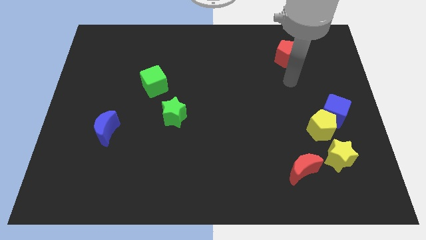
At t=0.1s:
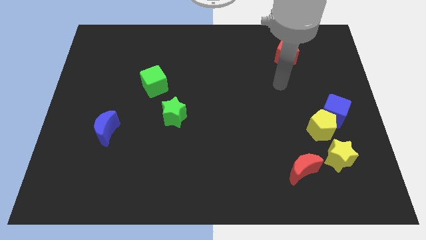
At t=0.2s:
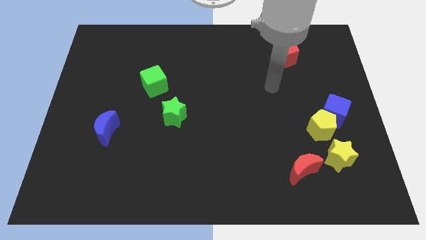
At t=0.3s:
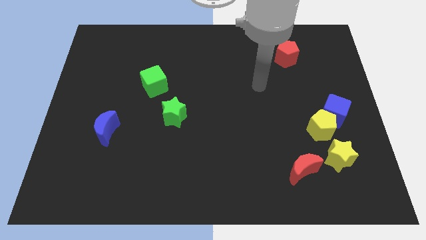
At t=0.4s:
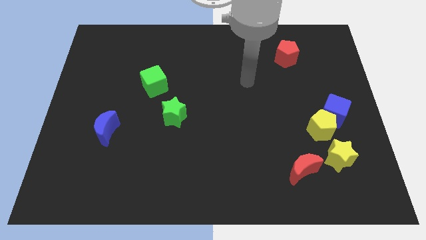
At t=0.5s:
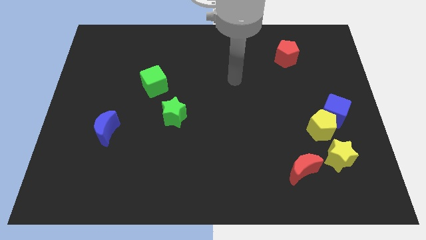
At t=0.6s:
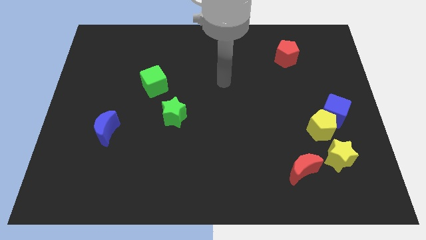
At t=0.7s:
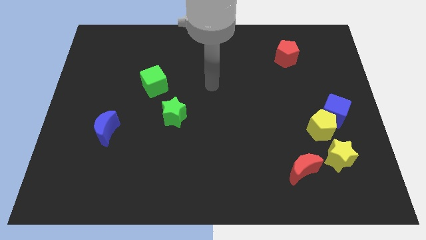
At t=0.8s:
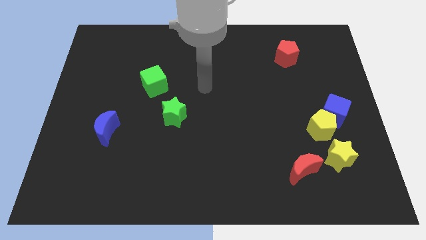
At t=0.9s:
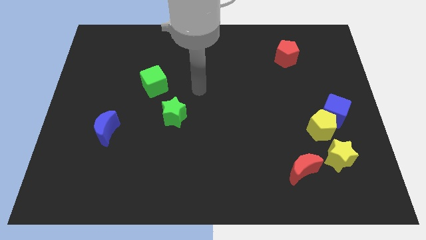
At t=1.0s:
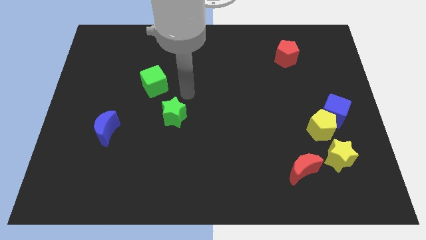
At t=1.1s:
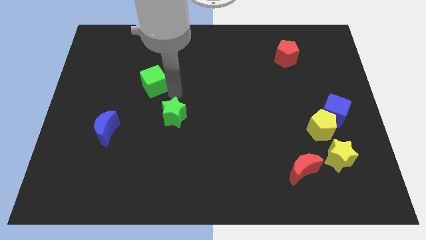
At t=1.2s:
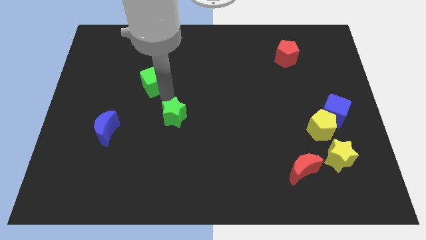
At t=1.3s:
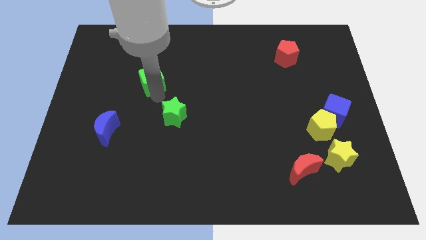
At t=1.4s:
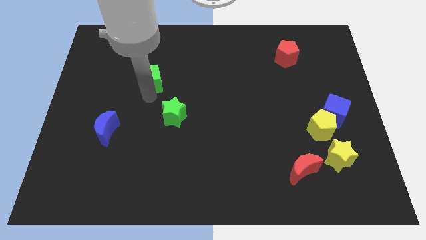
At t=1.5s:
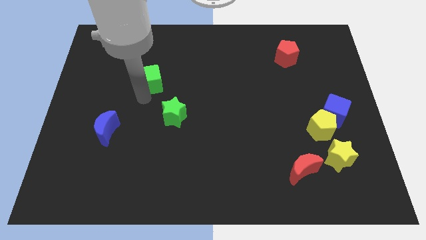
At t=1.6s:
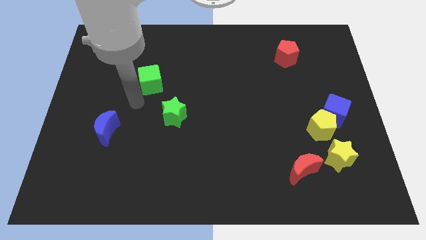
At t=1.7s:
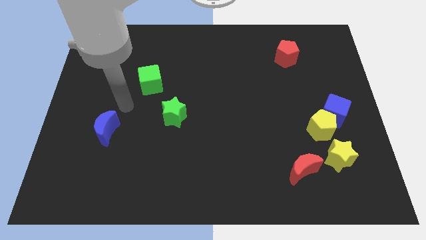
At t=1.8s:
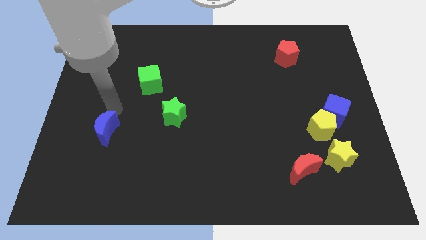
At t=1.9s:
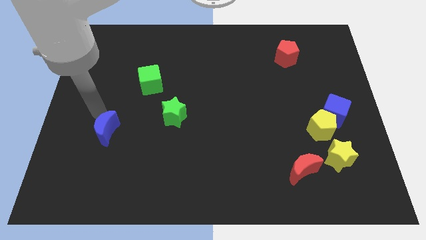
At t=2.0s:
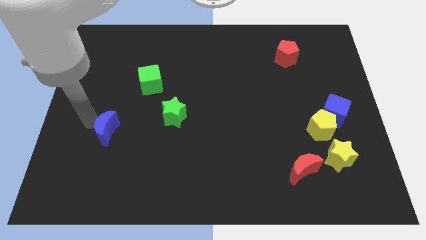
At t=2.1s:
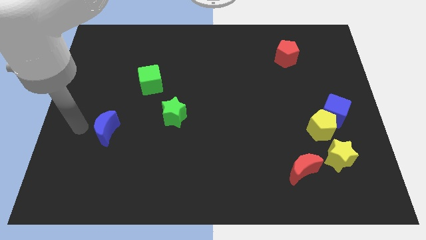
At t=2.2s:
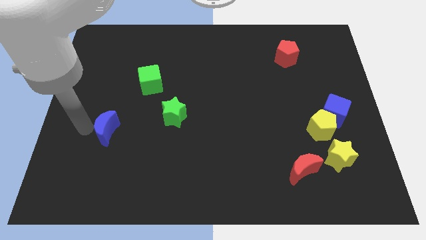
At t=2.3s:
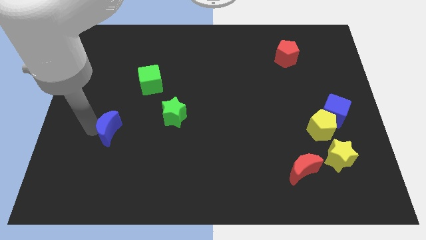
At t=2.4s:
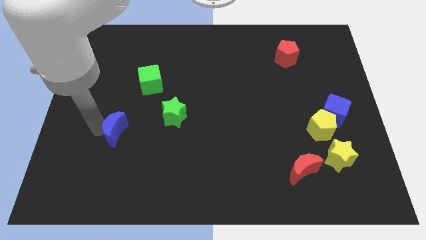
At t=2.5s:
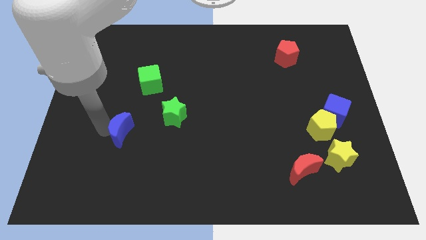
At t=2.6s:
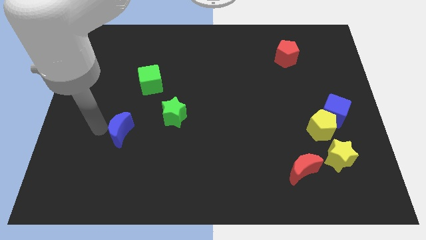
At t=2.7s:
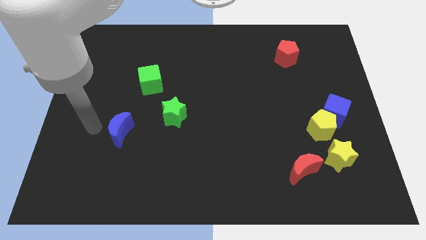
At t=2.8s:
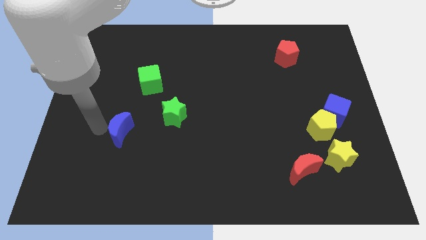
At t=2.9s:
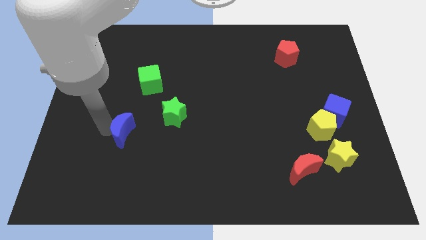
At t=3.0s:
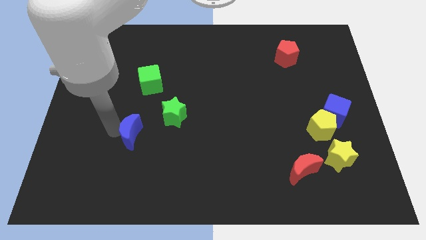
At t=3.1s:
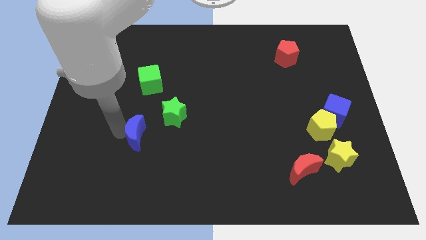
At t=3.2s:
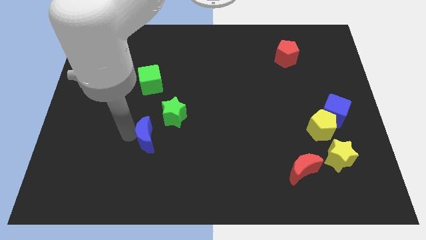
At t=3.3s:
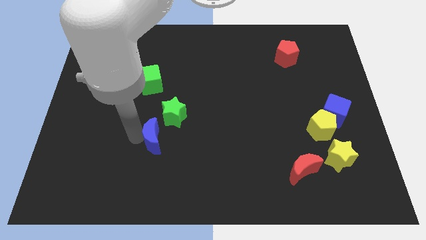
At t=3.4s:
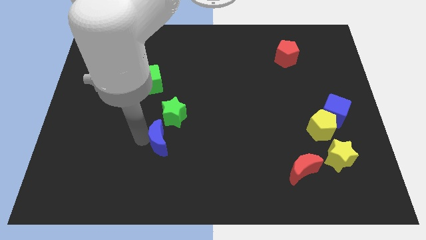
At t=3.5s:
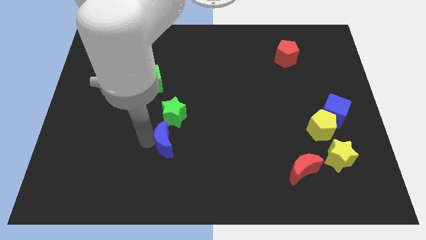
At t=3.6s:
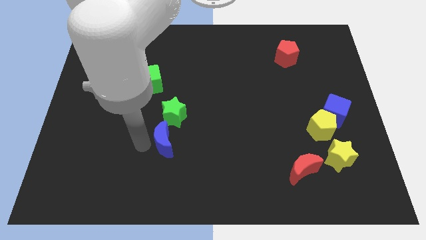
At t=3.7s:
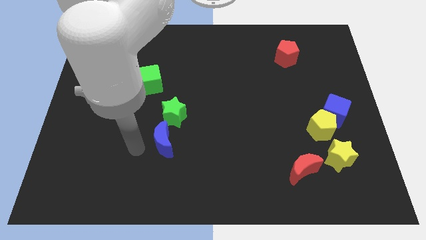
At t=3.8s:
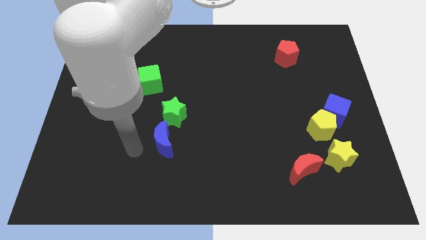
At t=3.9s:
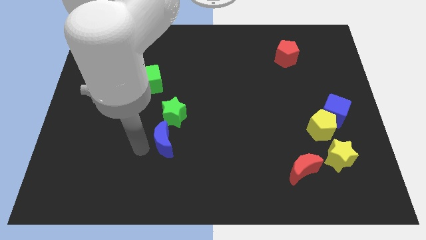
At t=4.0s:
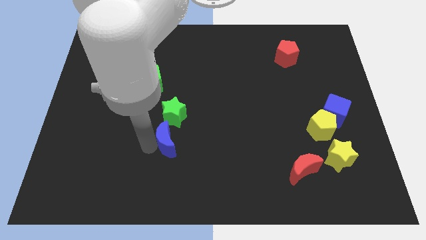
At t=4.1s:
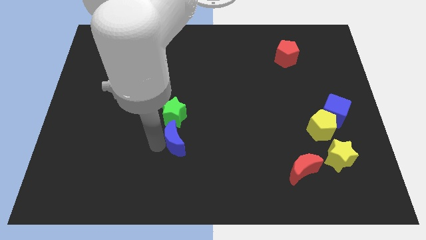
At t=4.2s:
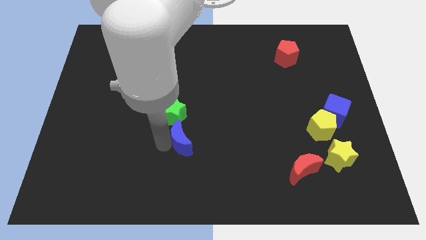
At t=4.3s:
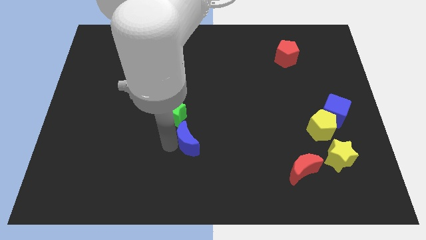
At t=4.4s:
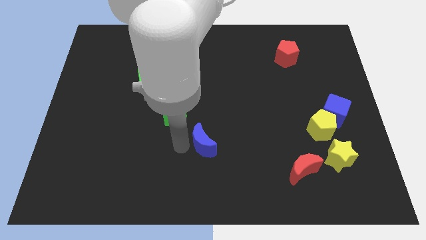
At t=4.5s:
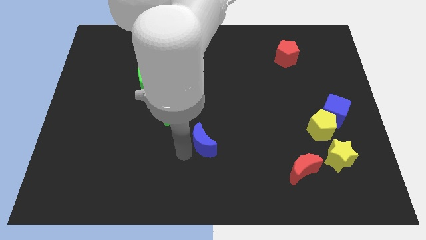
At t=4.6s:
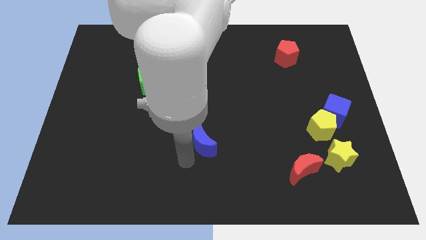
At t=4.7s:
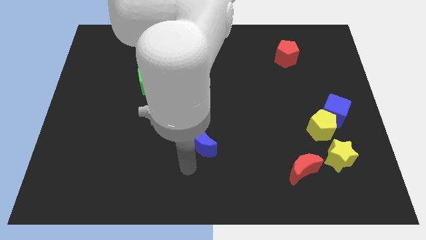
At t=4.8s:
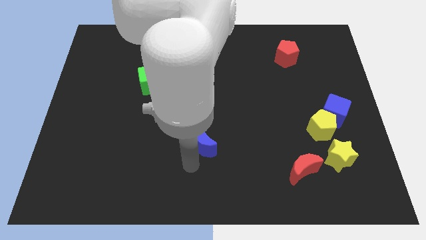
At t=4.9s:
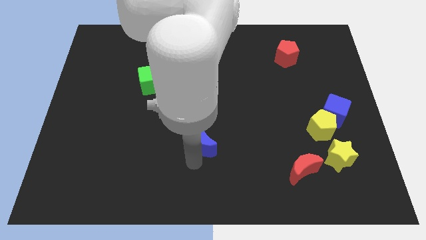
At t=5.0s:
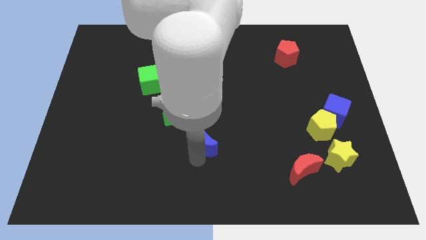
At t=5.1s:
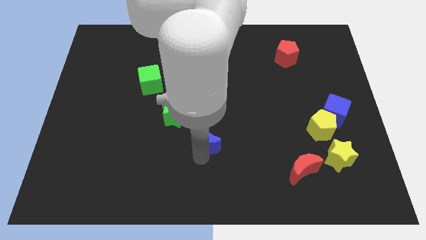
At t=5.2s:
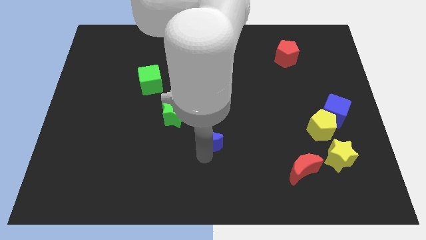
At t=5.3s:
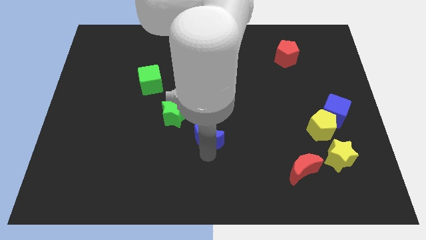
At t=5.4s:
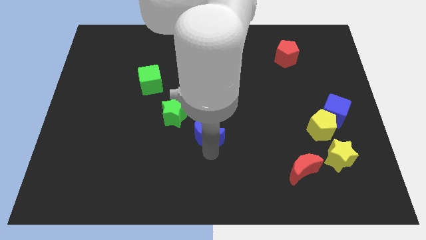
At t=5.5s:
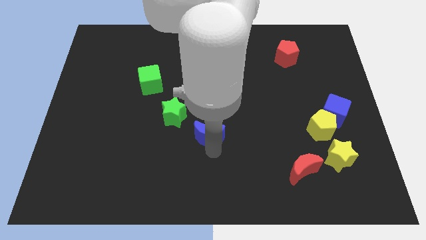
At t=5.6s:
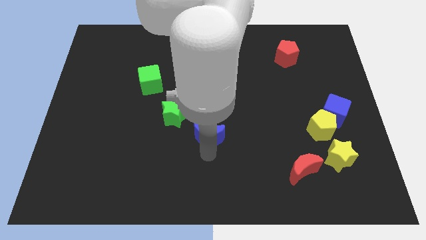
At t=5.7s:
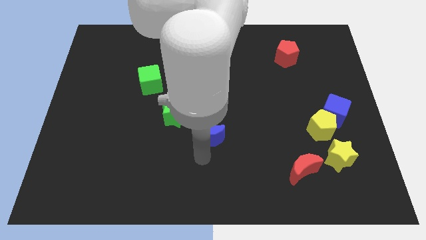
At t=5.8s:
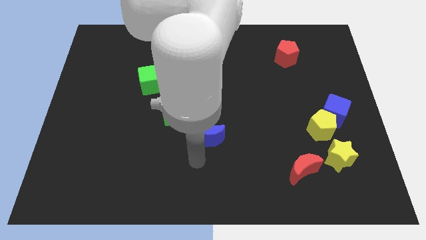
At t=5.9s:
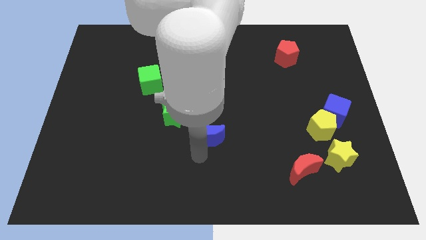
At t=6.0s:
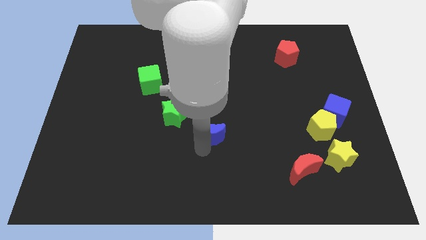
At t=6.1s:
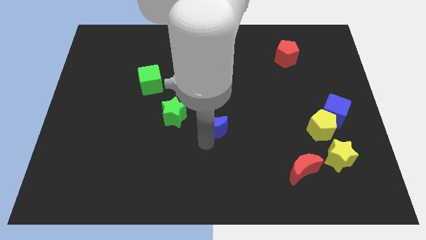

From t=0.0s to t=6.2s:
push the blue moon just right of the green star

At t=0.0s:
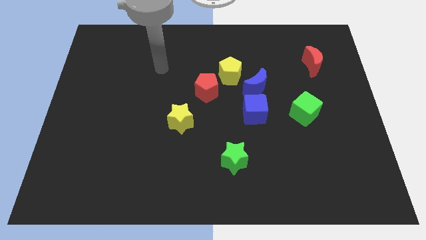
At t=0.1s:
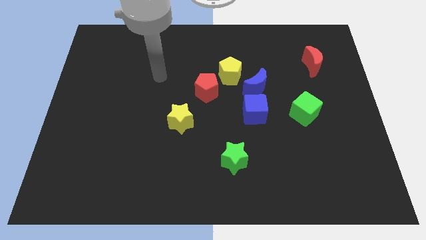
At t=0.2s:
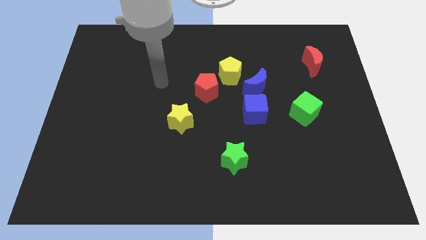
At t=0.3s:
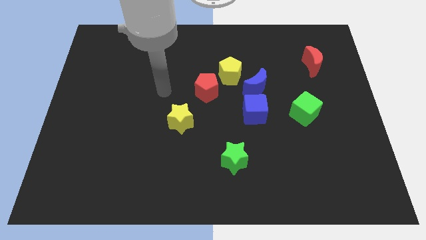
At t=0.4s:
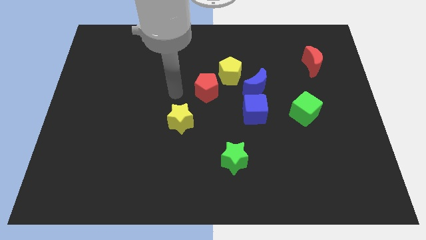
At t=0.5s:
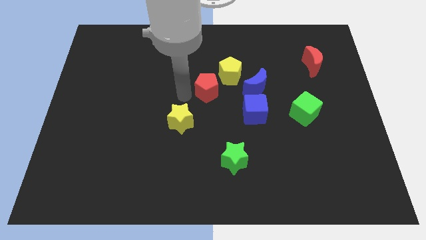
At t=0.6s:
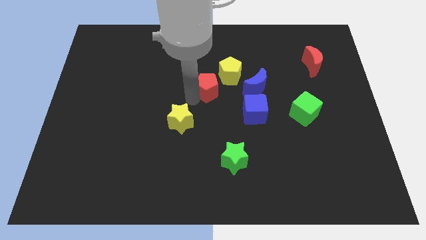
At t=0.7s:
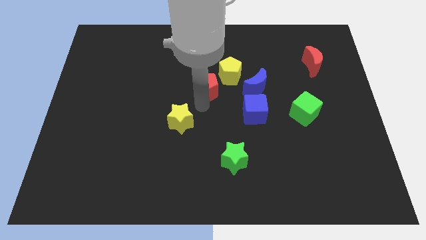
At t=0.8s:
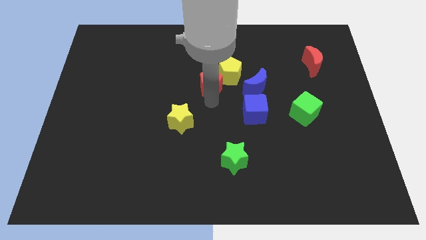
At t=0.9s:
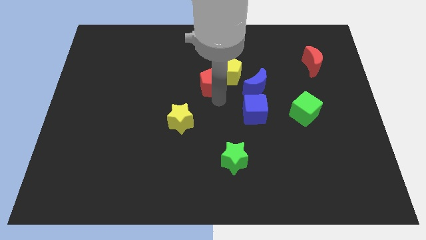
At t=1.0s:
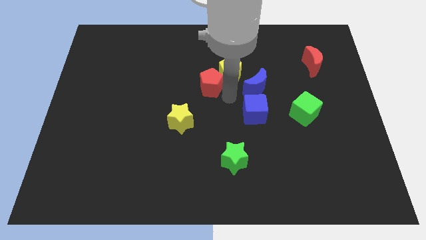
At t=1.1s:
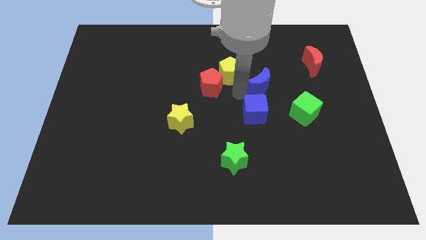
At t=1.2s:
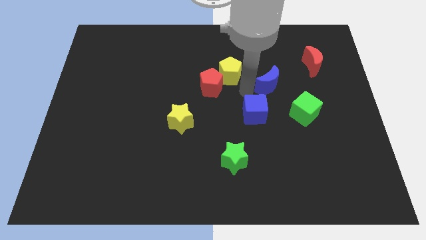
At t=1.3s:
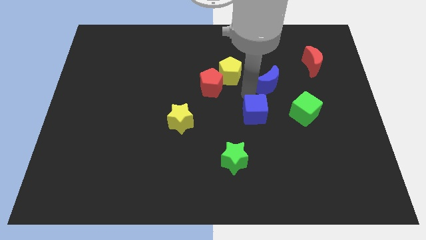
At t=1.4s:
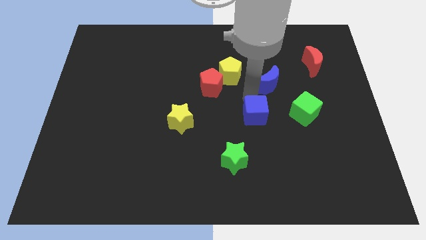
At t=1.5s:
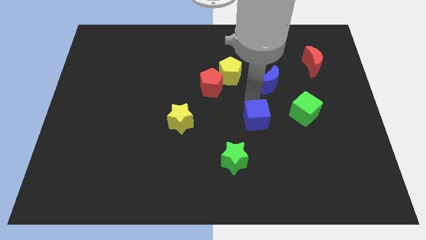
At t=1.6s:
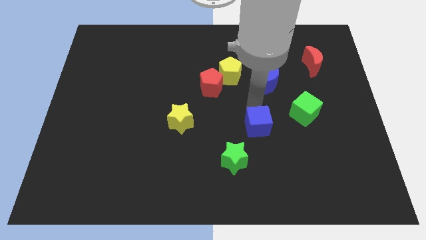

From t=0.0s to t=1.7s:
put the blue cube to the top right side of the green star
